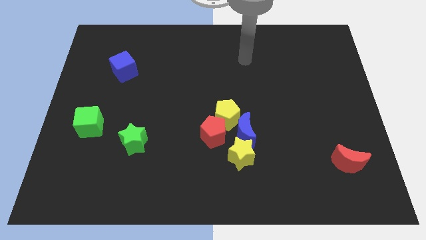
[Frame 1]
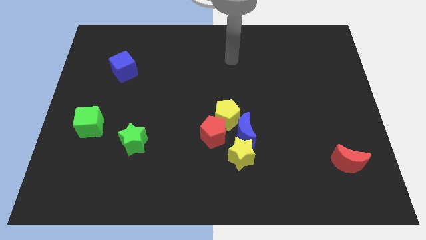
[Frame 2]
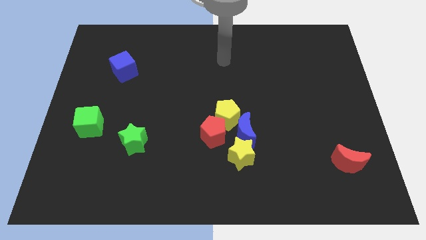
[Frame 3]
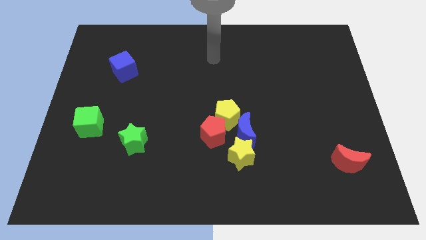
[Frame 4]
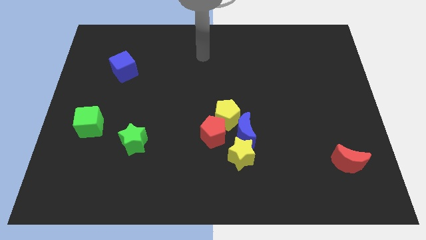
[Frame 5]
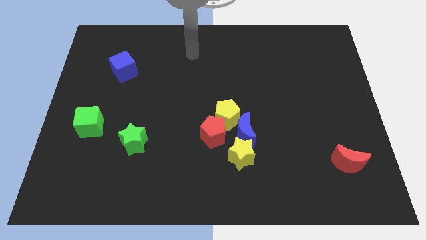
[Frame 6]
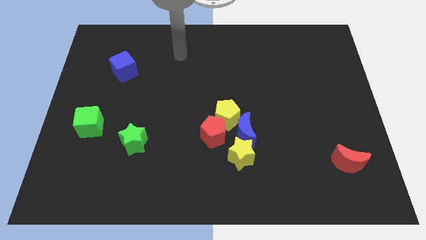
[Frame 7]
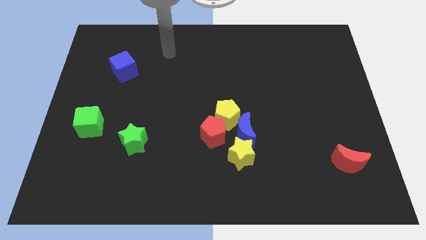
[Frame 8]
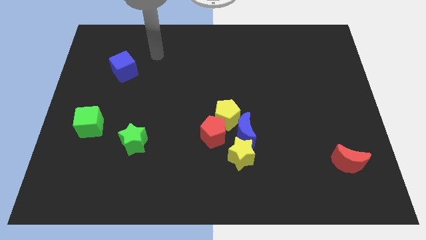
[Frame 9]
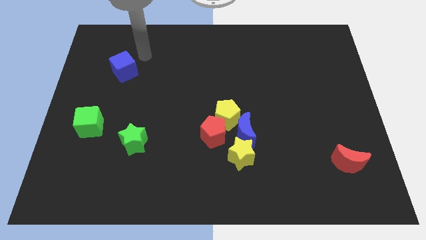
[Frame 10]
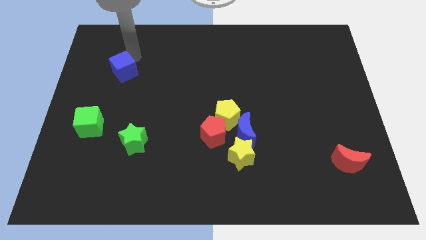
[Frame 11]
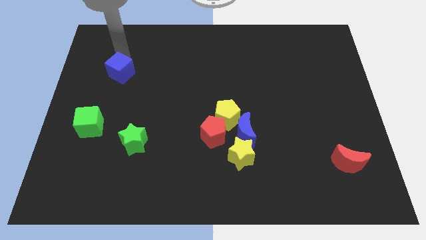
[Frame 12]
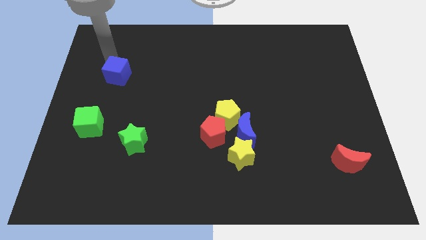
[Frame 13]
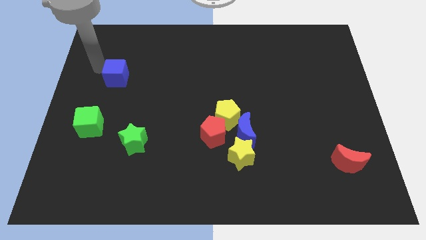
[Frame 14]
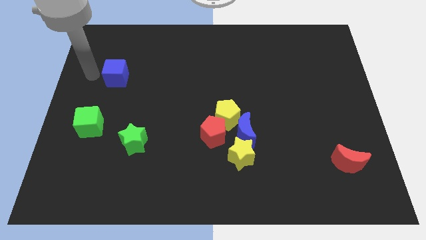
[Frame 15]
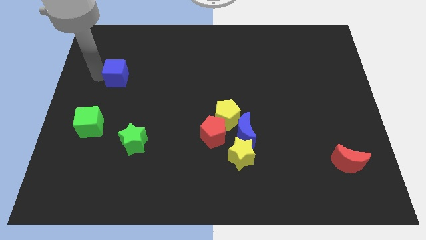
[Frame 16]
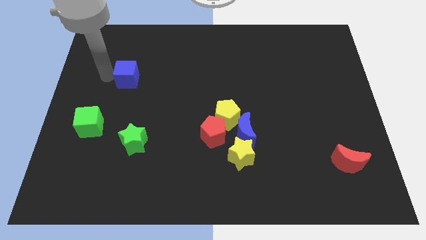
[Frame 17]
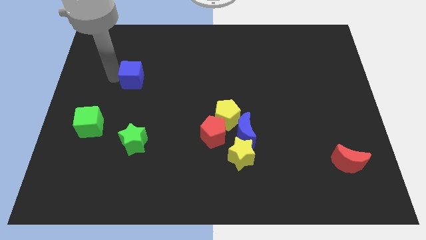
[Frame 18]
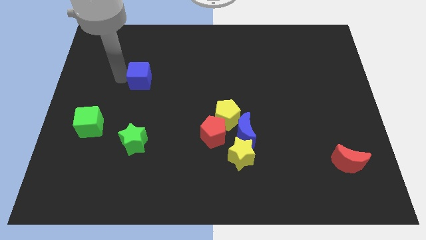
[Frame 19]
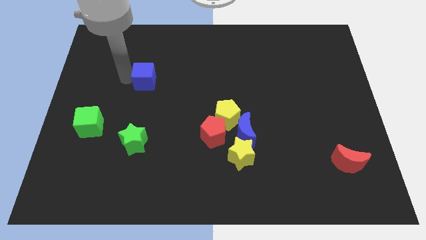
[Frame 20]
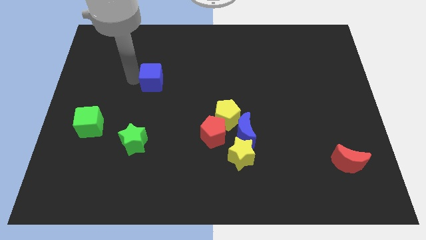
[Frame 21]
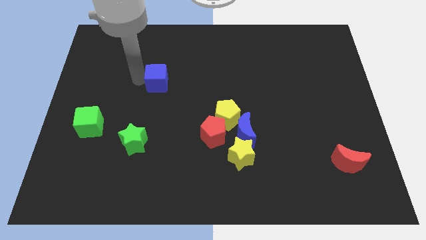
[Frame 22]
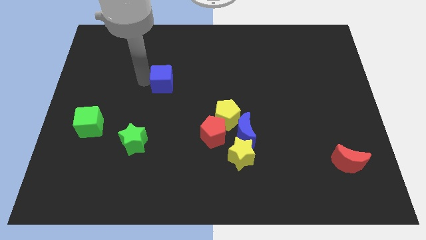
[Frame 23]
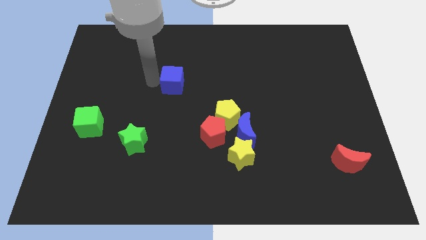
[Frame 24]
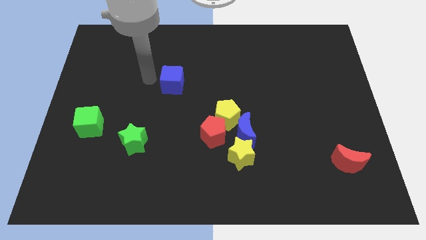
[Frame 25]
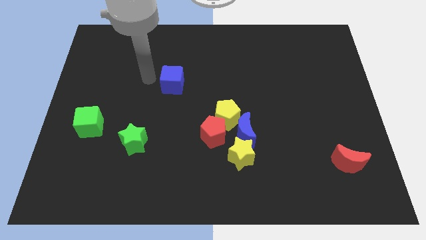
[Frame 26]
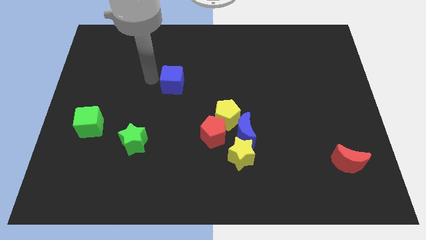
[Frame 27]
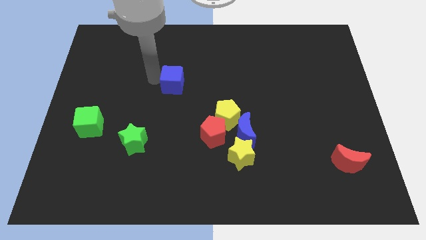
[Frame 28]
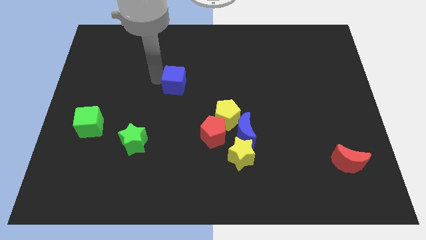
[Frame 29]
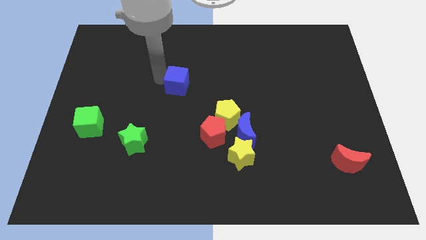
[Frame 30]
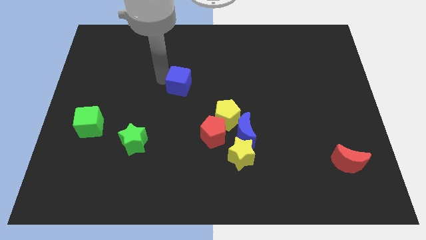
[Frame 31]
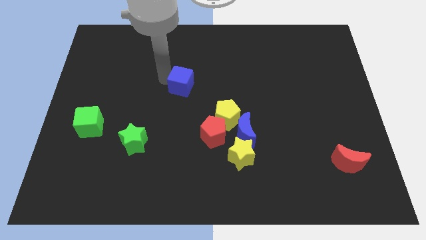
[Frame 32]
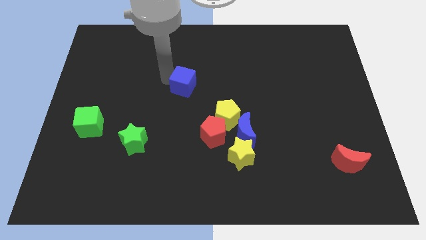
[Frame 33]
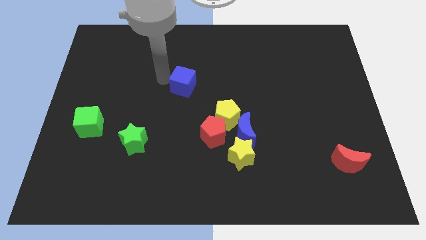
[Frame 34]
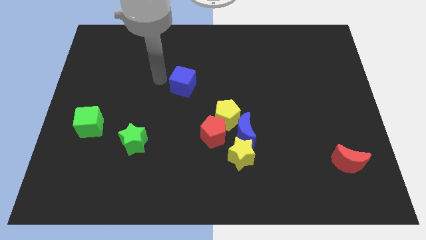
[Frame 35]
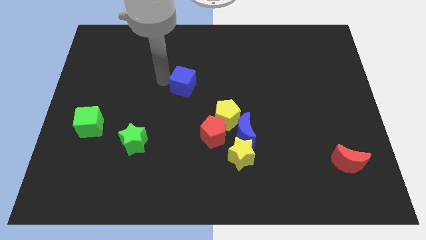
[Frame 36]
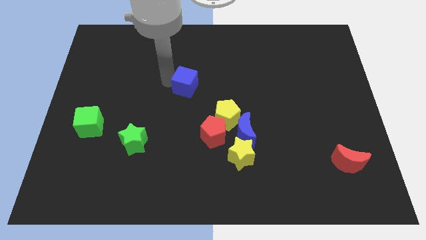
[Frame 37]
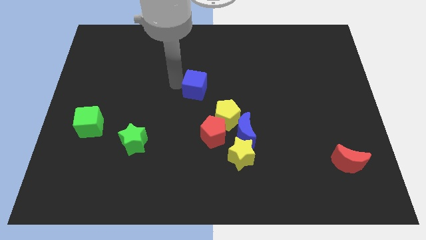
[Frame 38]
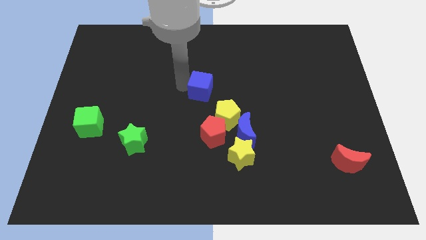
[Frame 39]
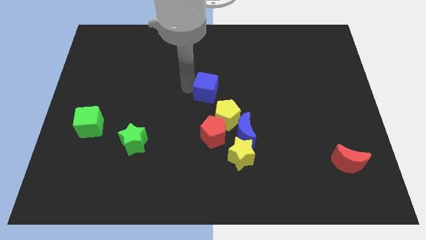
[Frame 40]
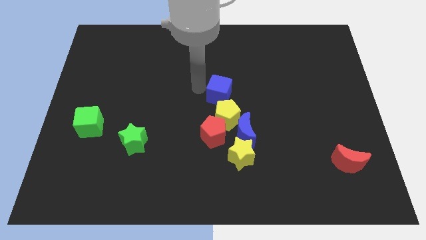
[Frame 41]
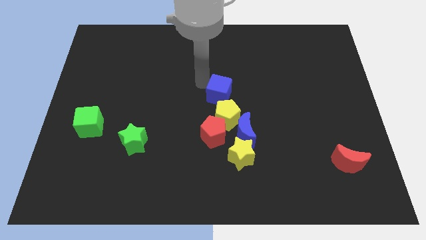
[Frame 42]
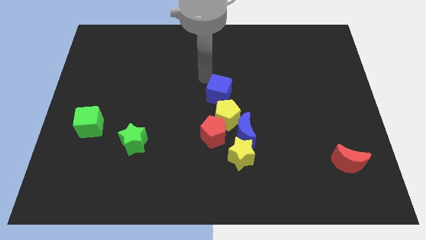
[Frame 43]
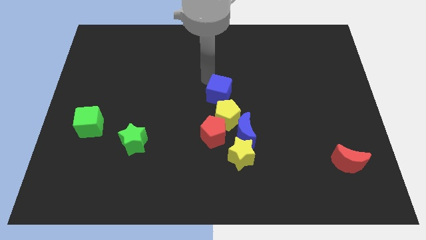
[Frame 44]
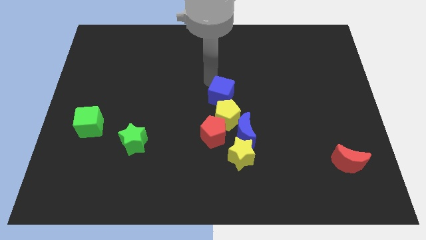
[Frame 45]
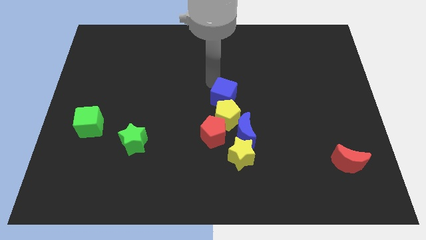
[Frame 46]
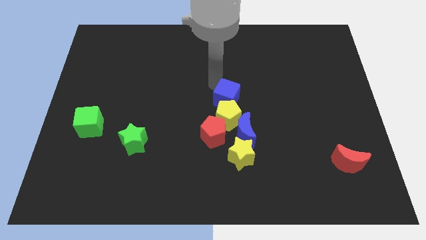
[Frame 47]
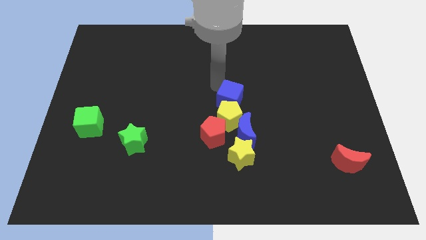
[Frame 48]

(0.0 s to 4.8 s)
slide the blue cube to the top of the yellow star

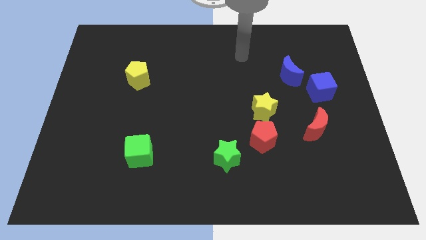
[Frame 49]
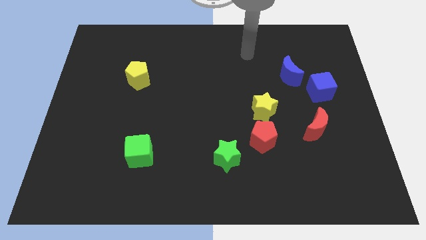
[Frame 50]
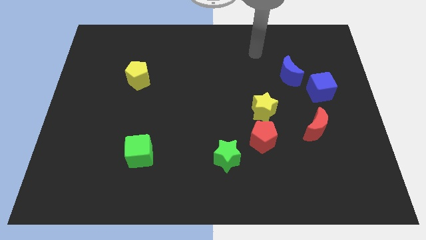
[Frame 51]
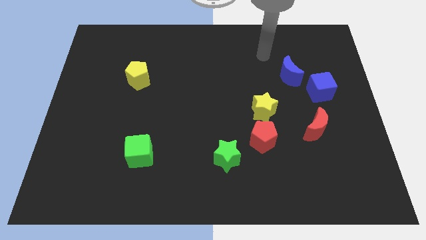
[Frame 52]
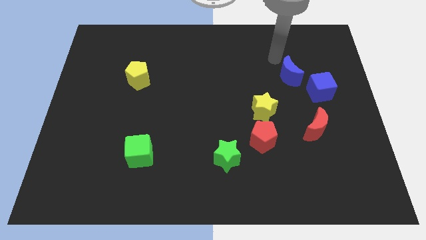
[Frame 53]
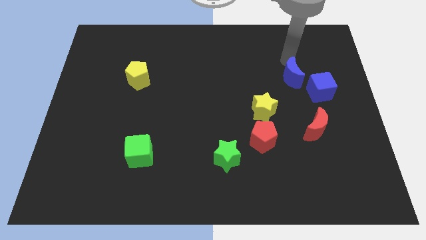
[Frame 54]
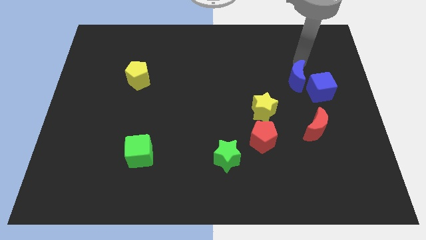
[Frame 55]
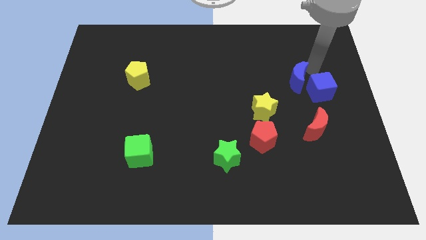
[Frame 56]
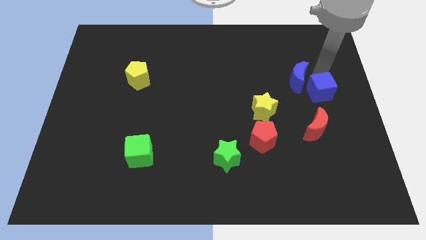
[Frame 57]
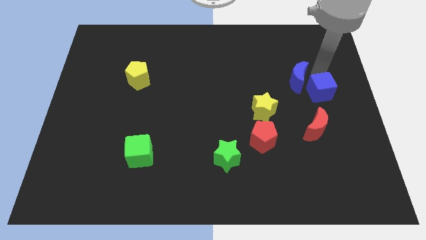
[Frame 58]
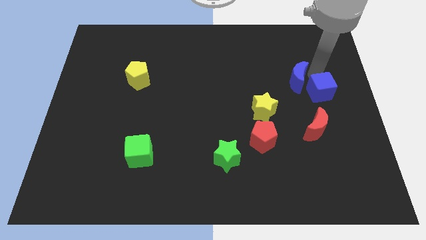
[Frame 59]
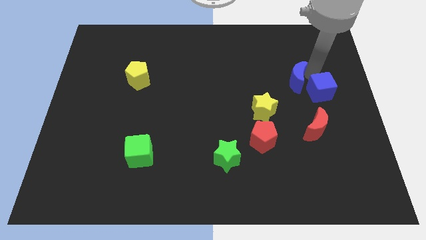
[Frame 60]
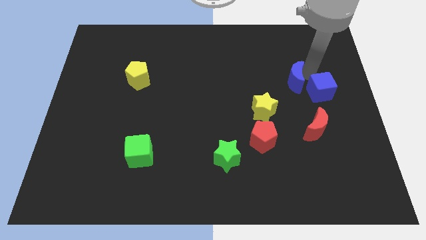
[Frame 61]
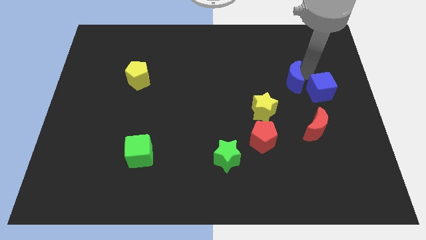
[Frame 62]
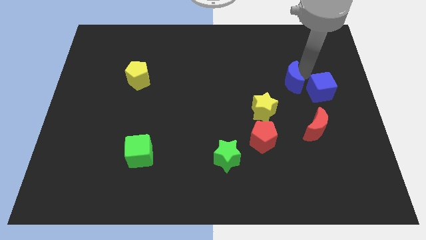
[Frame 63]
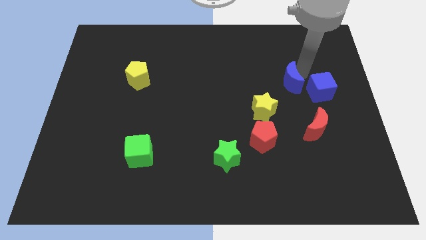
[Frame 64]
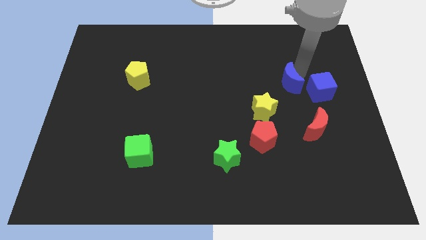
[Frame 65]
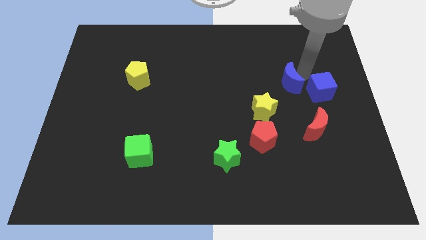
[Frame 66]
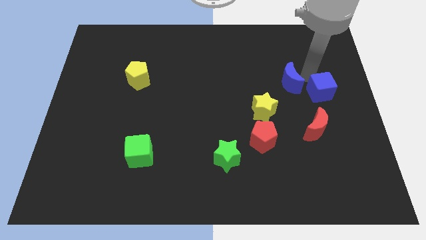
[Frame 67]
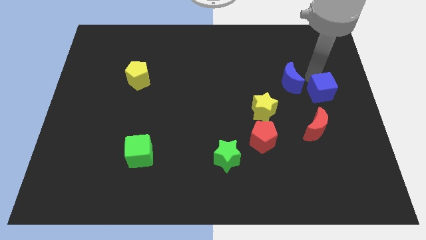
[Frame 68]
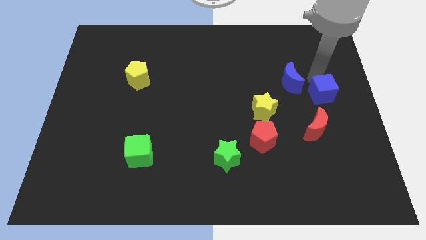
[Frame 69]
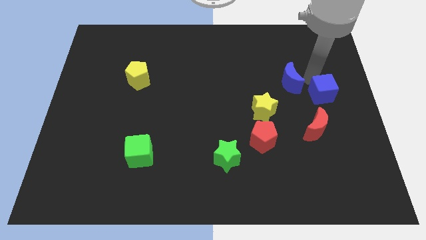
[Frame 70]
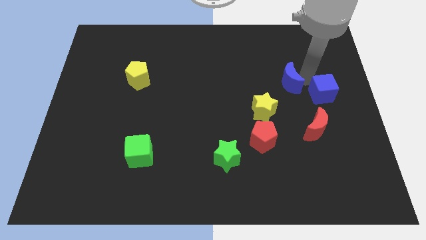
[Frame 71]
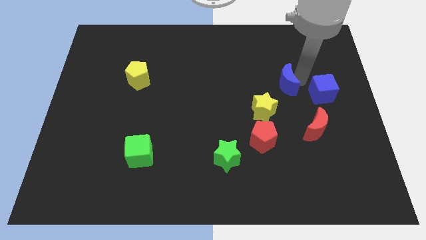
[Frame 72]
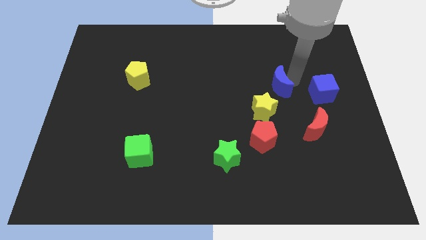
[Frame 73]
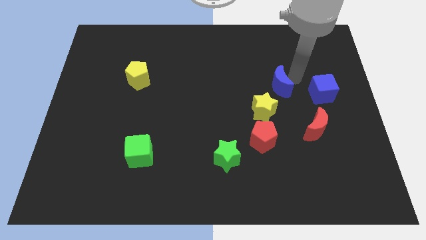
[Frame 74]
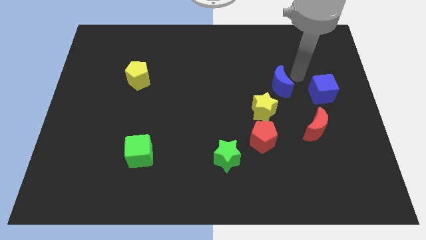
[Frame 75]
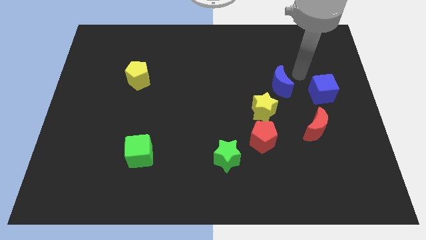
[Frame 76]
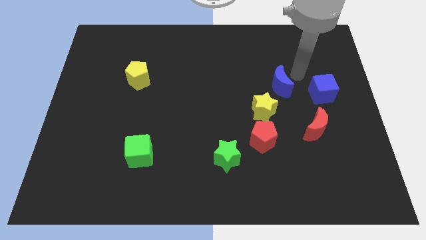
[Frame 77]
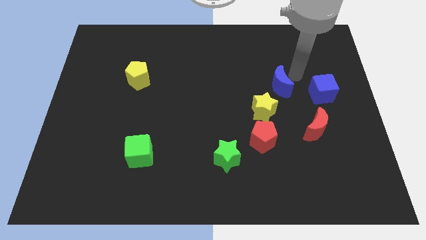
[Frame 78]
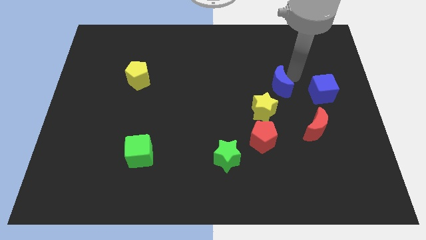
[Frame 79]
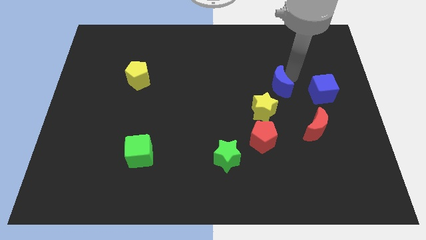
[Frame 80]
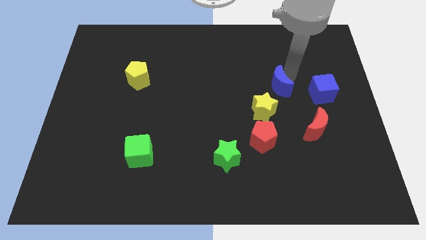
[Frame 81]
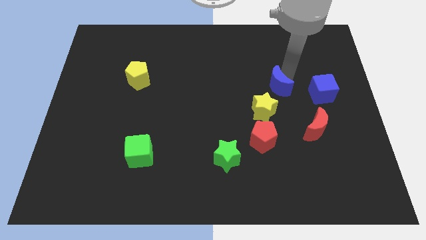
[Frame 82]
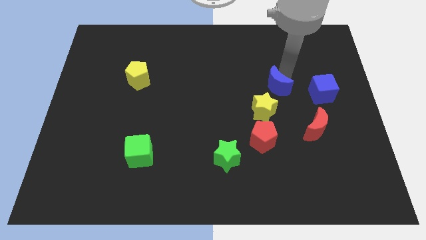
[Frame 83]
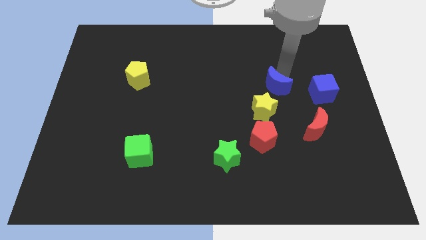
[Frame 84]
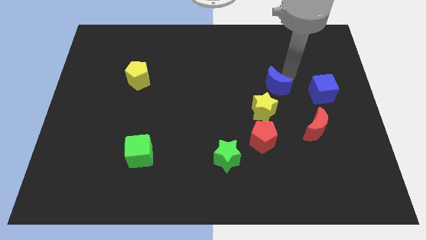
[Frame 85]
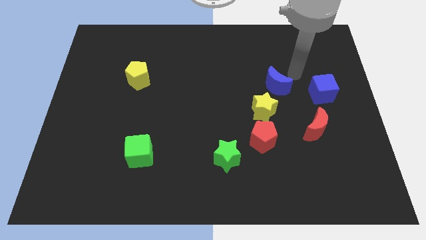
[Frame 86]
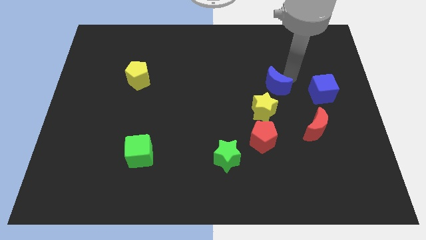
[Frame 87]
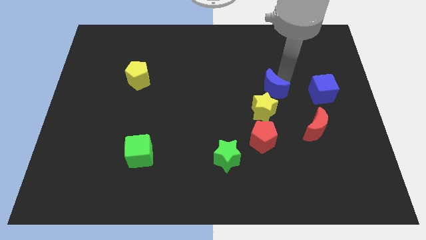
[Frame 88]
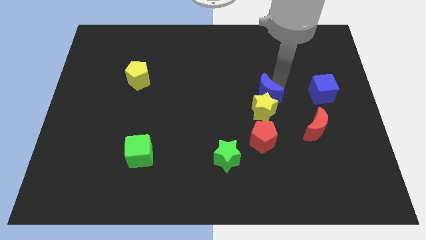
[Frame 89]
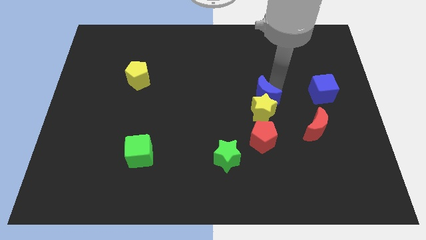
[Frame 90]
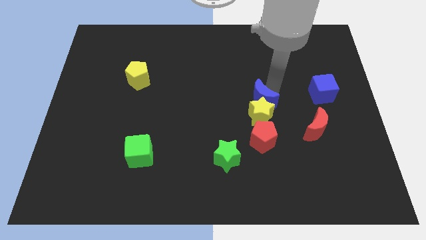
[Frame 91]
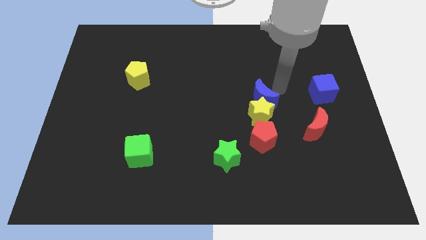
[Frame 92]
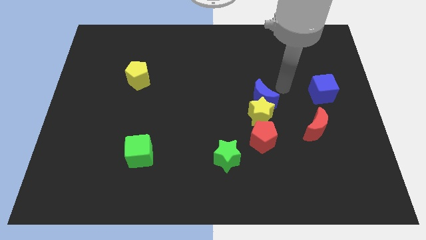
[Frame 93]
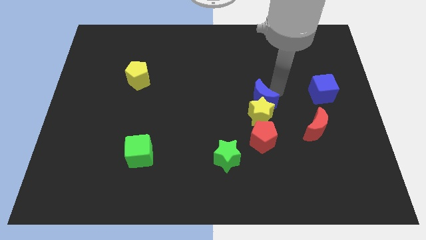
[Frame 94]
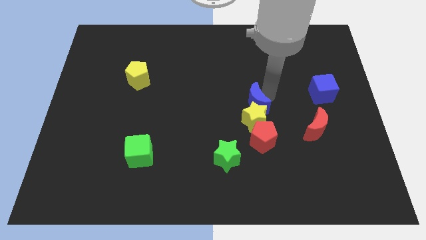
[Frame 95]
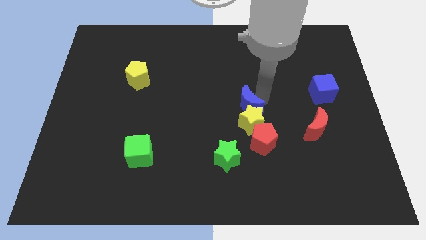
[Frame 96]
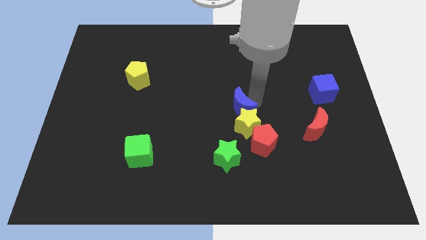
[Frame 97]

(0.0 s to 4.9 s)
put the blue moon to the top side of the green star
